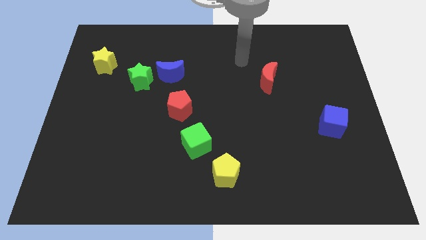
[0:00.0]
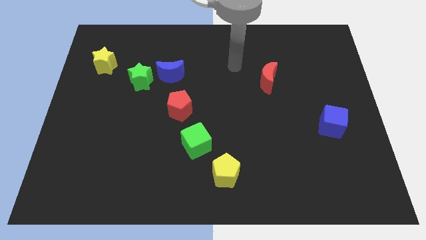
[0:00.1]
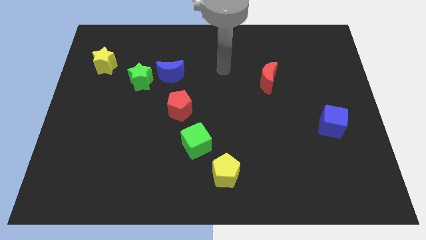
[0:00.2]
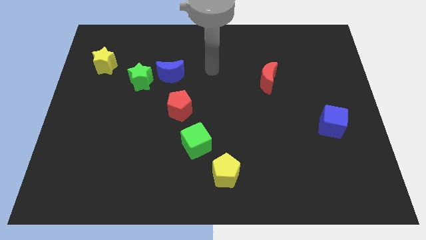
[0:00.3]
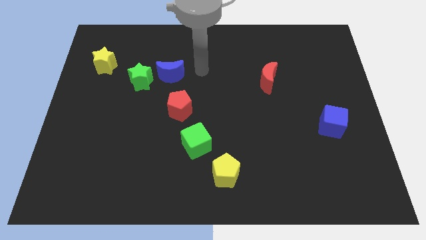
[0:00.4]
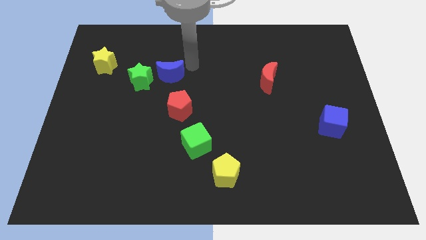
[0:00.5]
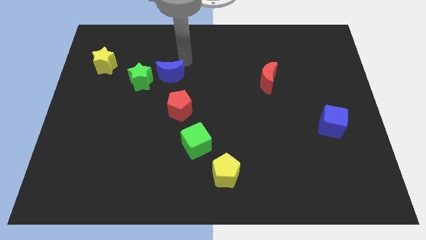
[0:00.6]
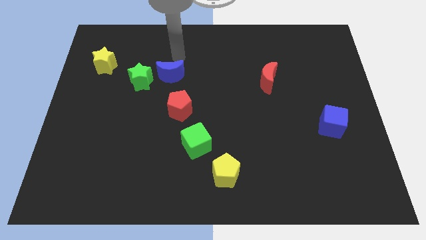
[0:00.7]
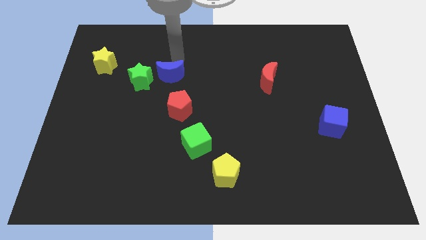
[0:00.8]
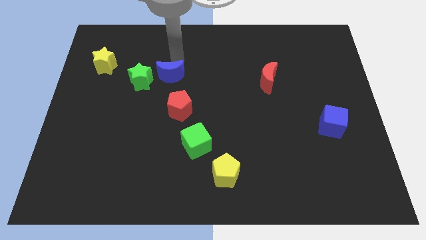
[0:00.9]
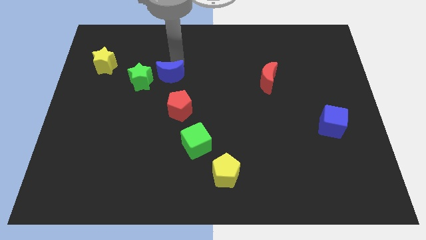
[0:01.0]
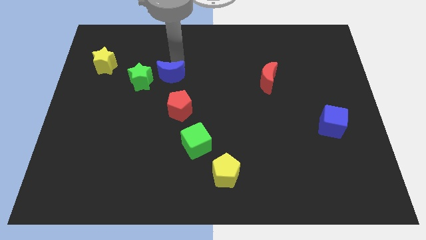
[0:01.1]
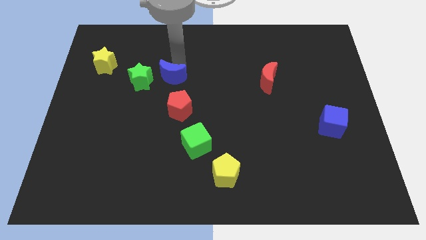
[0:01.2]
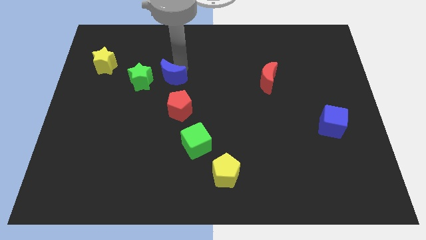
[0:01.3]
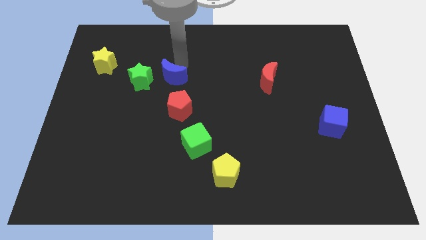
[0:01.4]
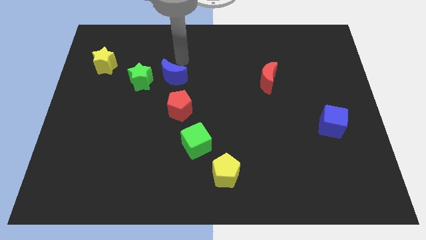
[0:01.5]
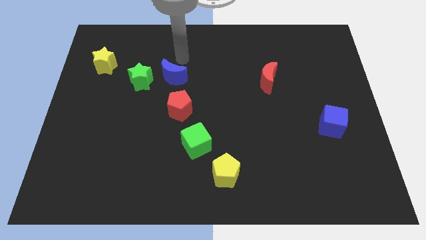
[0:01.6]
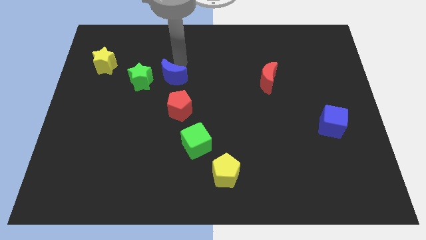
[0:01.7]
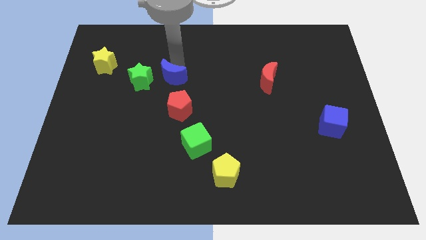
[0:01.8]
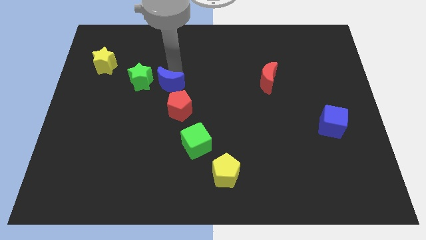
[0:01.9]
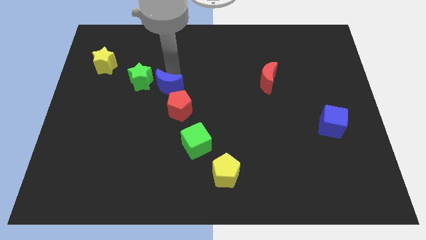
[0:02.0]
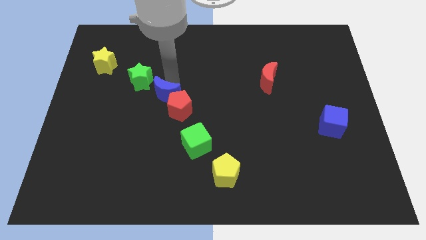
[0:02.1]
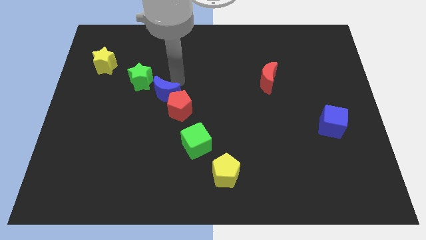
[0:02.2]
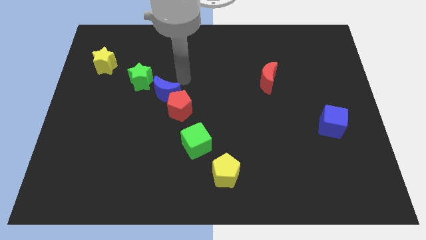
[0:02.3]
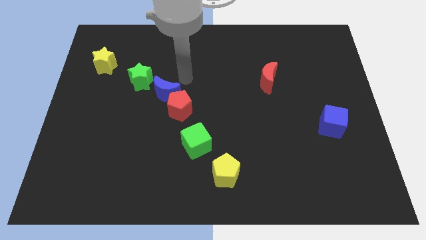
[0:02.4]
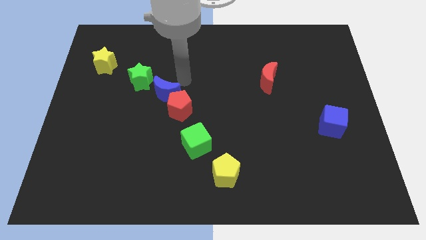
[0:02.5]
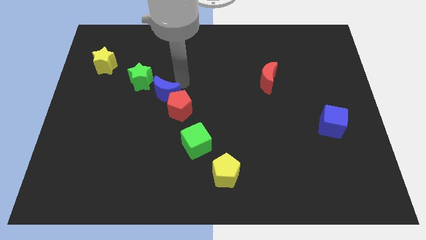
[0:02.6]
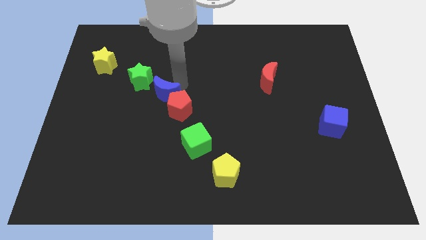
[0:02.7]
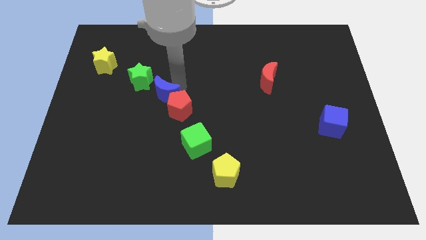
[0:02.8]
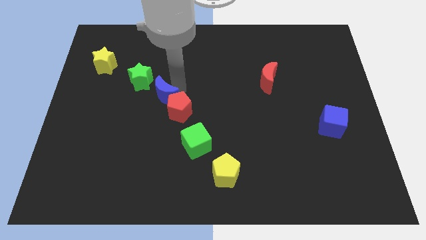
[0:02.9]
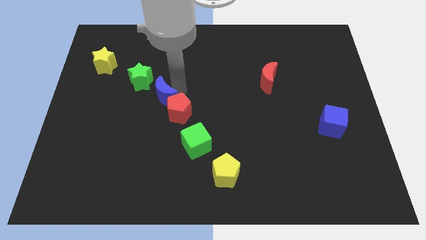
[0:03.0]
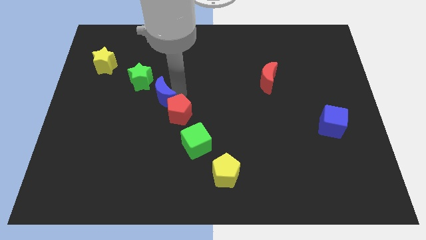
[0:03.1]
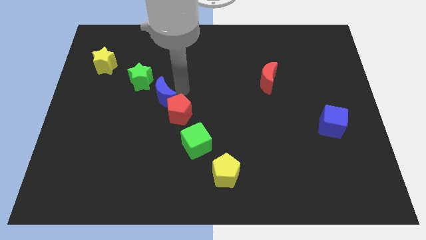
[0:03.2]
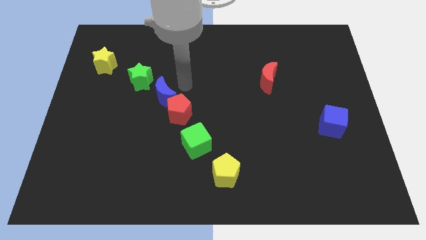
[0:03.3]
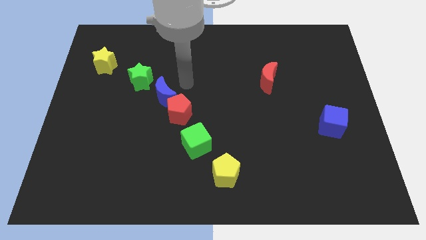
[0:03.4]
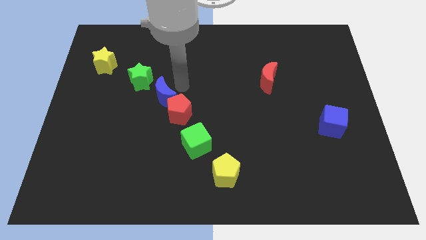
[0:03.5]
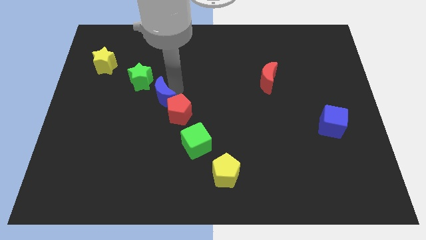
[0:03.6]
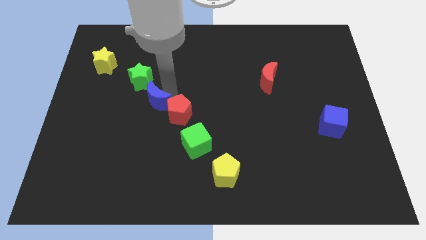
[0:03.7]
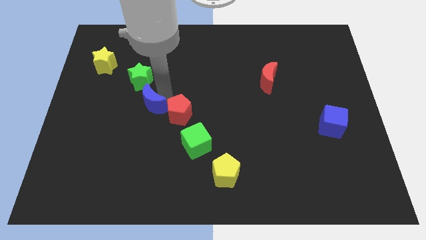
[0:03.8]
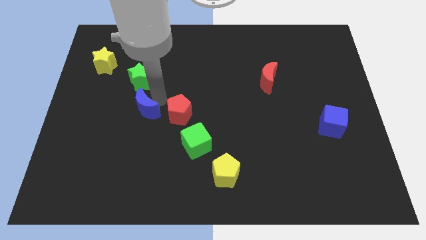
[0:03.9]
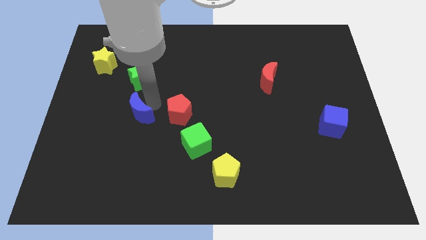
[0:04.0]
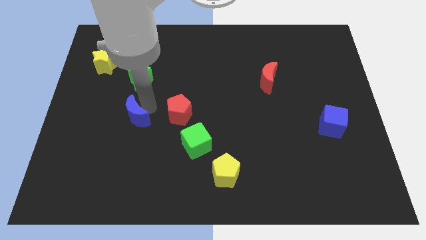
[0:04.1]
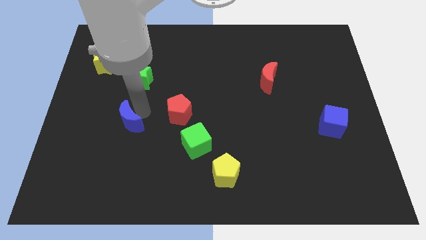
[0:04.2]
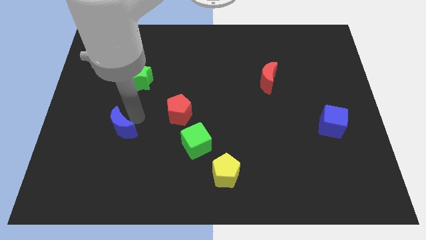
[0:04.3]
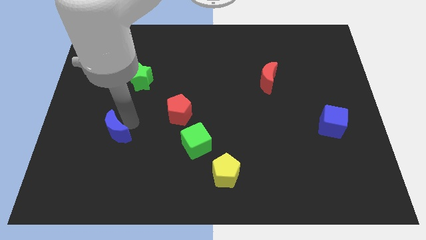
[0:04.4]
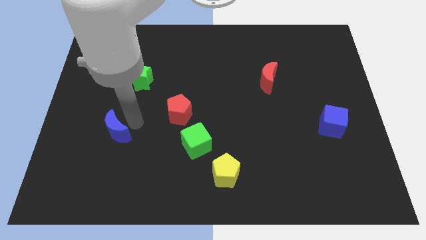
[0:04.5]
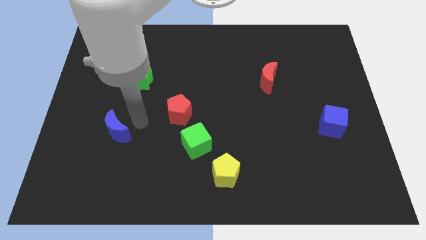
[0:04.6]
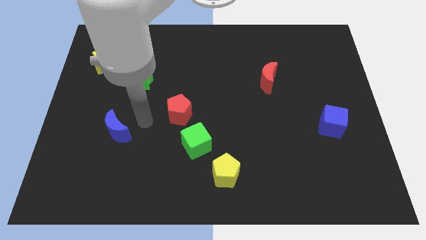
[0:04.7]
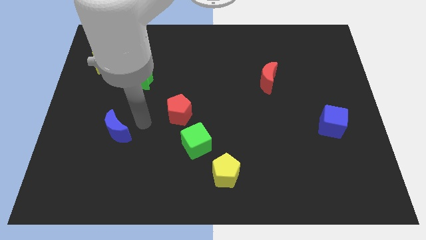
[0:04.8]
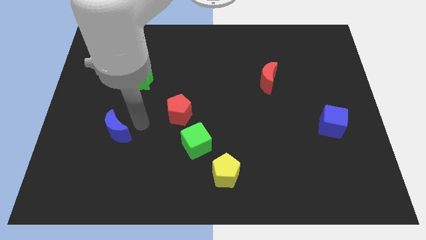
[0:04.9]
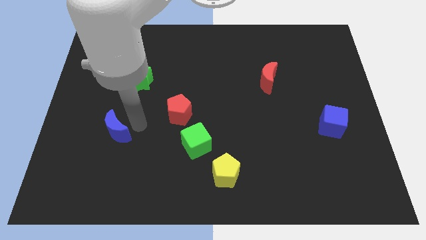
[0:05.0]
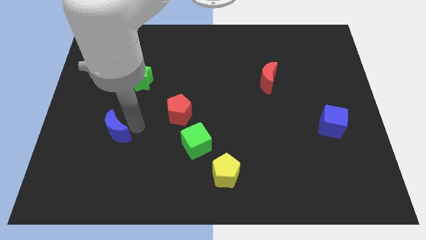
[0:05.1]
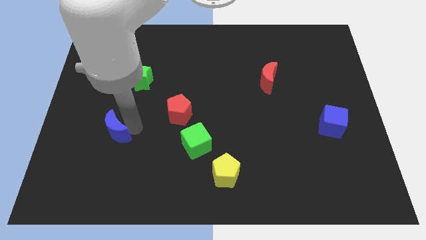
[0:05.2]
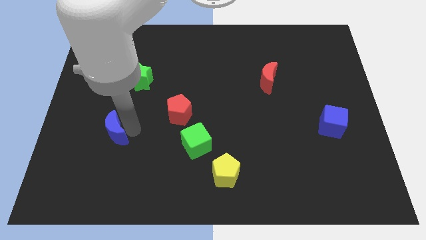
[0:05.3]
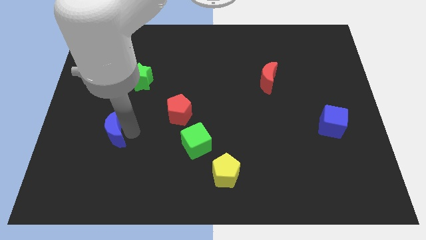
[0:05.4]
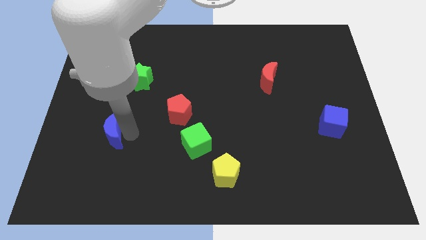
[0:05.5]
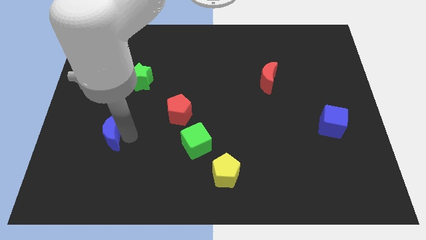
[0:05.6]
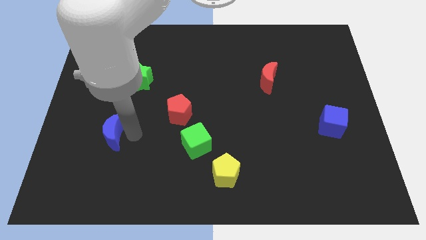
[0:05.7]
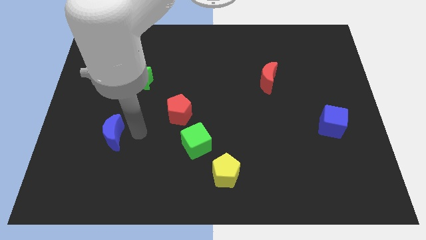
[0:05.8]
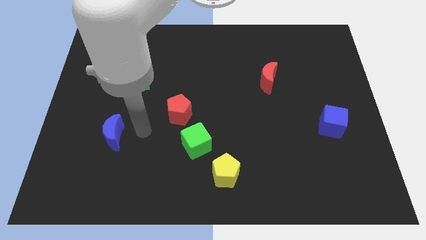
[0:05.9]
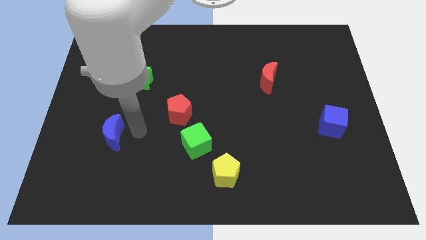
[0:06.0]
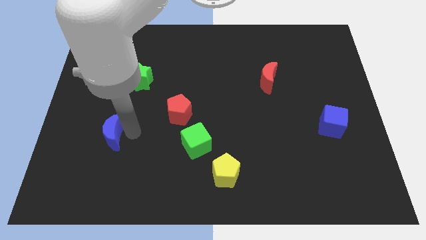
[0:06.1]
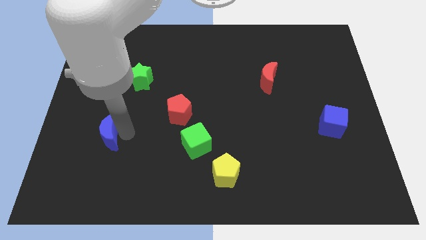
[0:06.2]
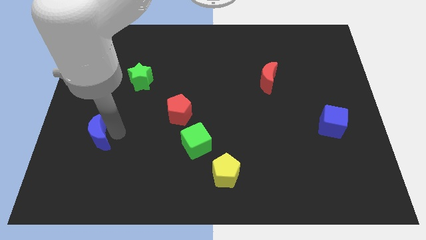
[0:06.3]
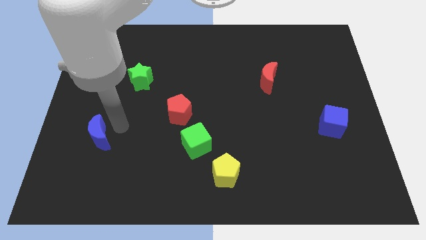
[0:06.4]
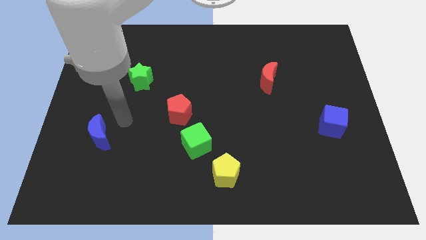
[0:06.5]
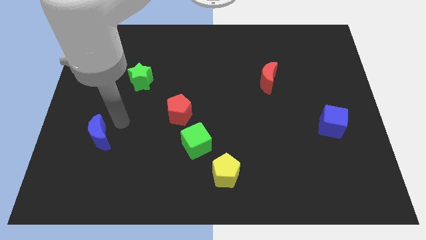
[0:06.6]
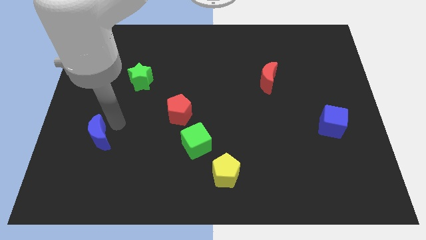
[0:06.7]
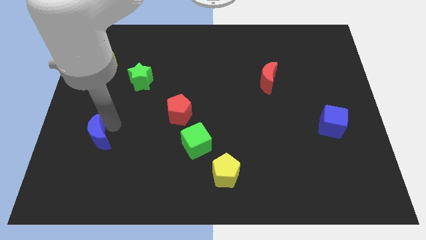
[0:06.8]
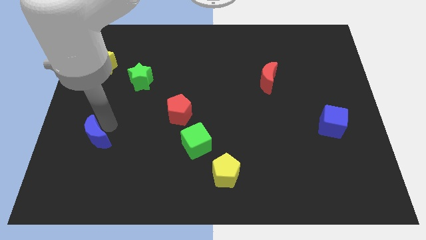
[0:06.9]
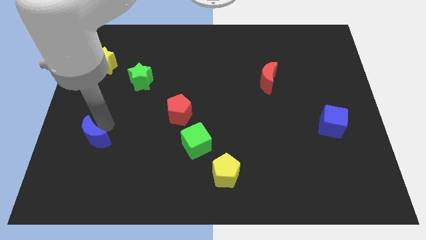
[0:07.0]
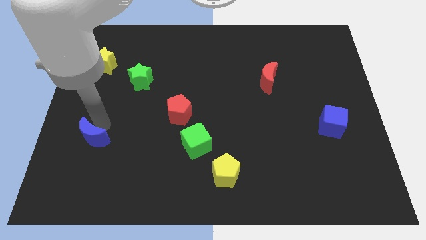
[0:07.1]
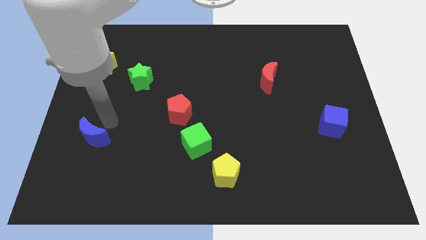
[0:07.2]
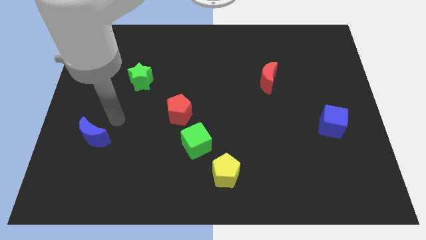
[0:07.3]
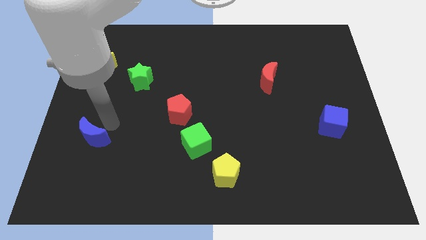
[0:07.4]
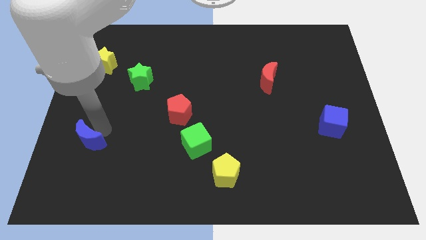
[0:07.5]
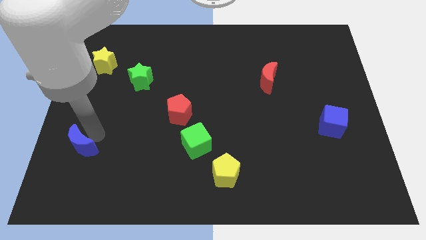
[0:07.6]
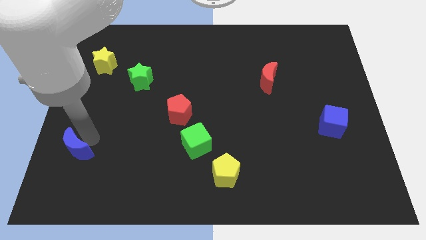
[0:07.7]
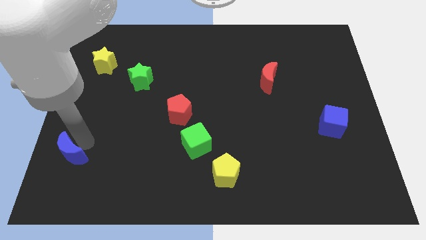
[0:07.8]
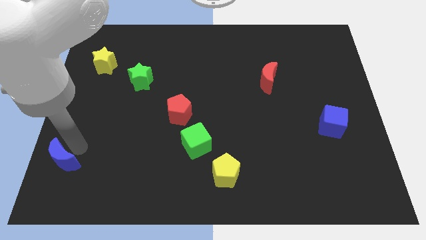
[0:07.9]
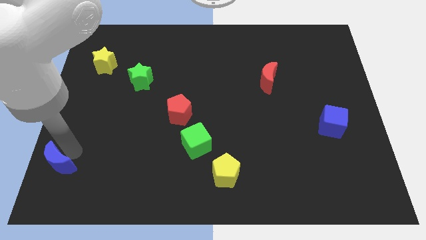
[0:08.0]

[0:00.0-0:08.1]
put the blue moon to the bottom left of the board
